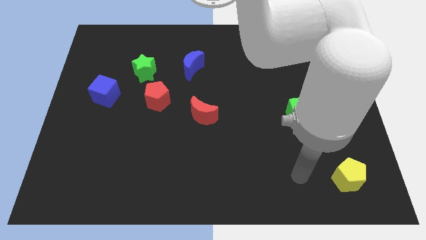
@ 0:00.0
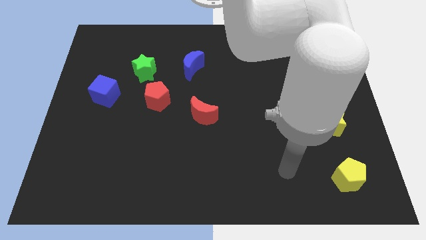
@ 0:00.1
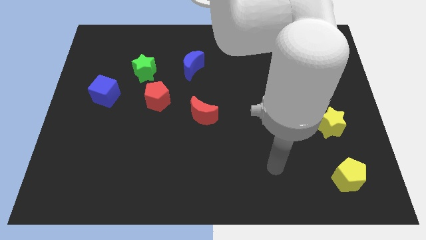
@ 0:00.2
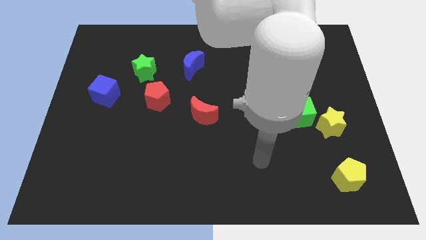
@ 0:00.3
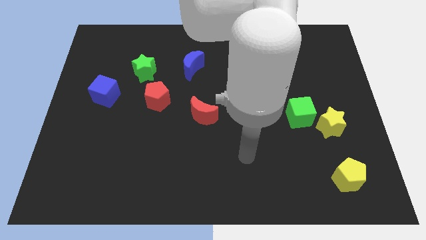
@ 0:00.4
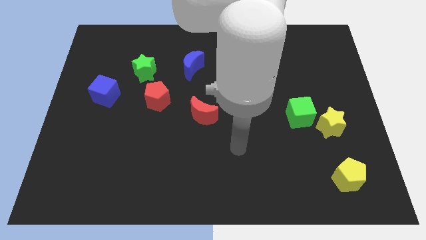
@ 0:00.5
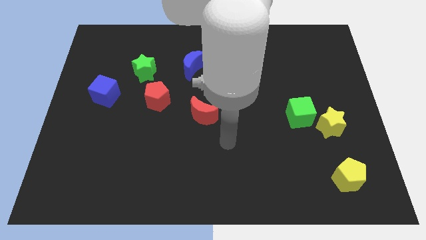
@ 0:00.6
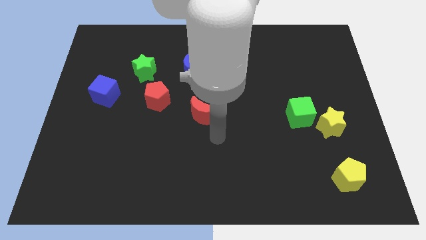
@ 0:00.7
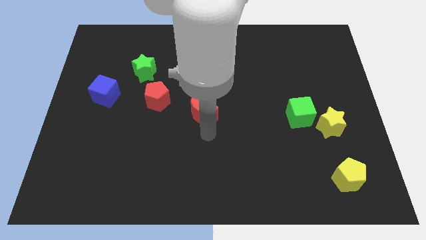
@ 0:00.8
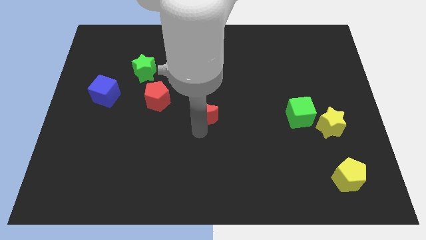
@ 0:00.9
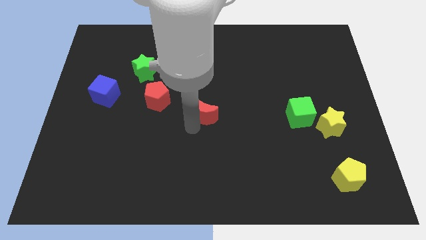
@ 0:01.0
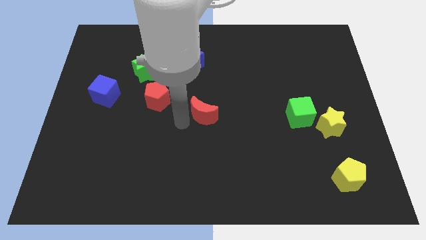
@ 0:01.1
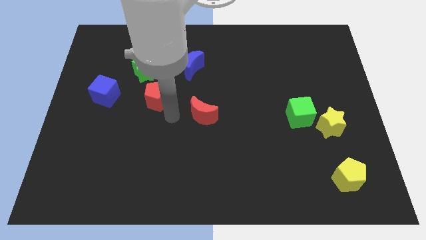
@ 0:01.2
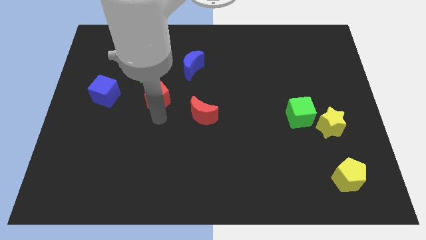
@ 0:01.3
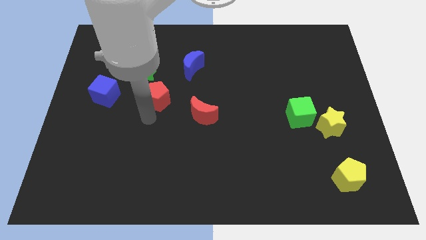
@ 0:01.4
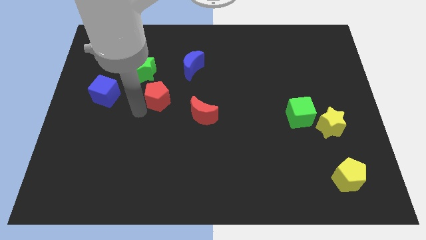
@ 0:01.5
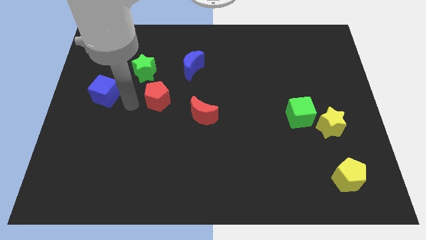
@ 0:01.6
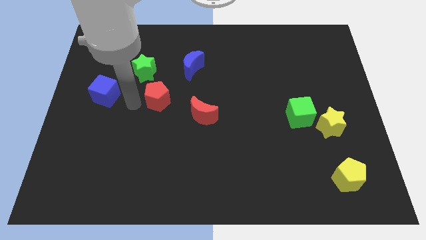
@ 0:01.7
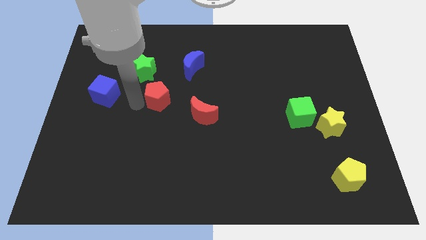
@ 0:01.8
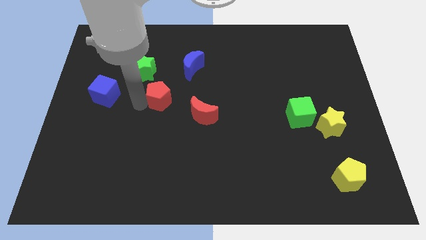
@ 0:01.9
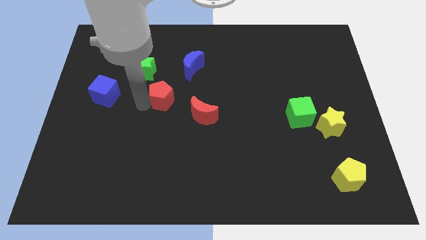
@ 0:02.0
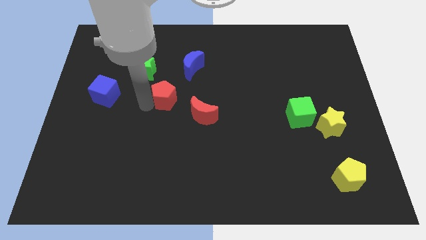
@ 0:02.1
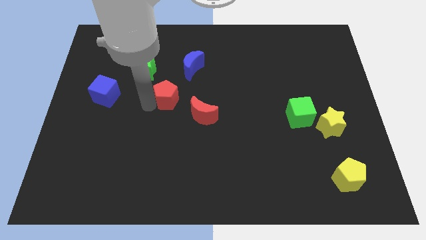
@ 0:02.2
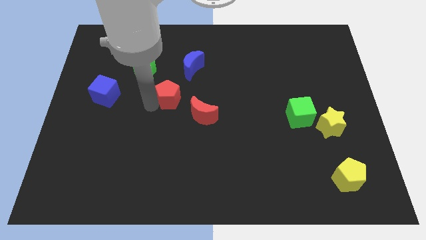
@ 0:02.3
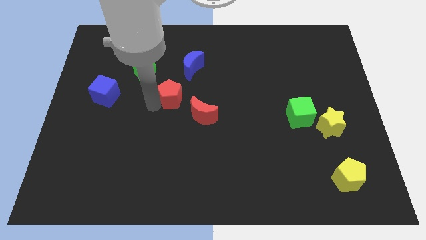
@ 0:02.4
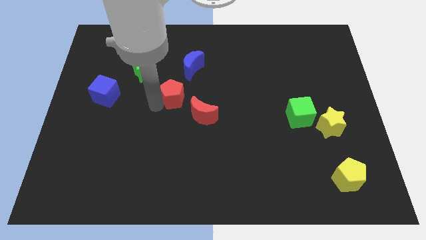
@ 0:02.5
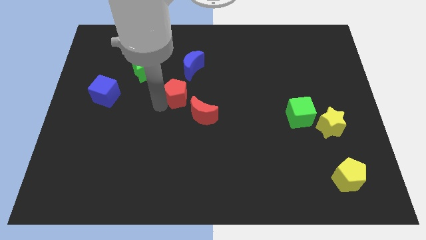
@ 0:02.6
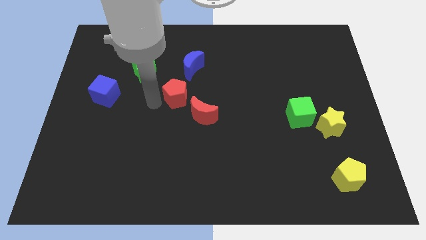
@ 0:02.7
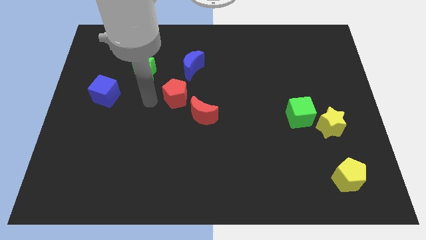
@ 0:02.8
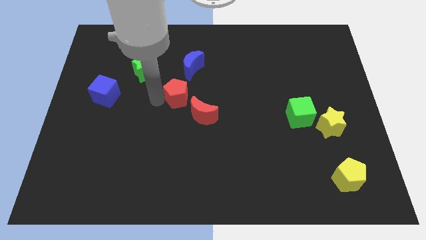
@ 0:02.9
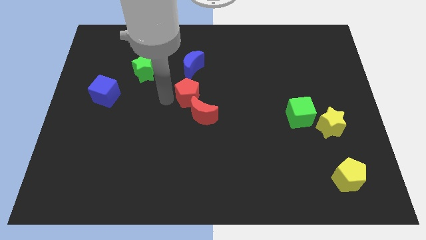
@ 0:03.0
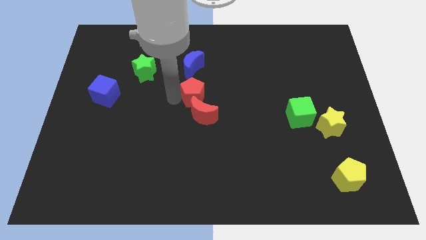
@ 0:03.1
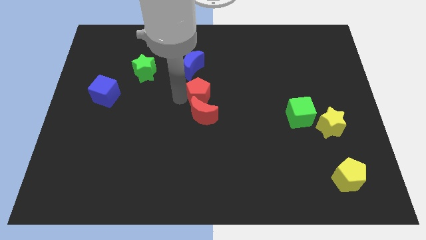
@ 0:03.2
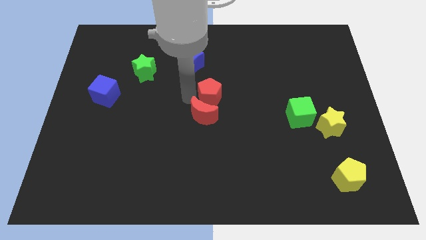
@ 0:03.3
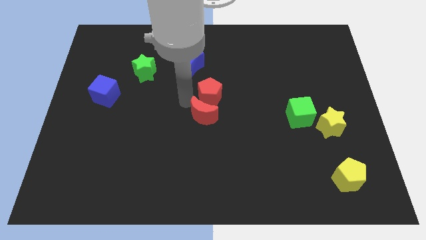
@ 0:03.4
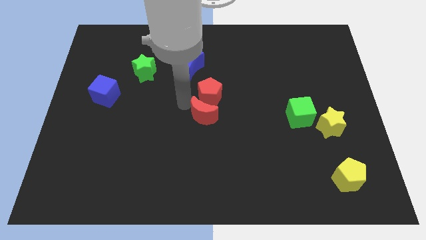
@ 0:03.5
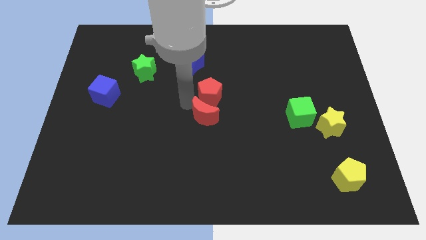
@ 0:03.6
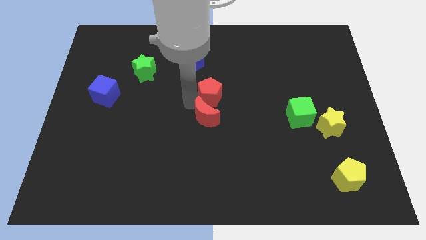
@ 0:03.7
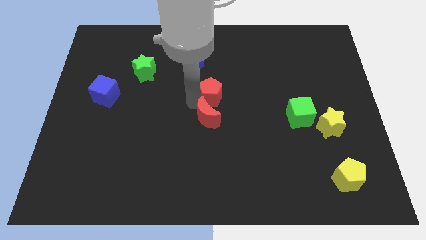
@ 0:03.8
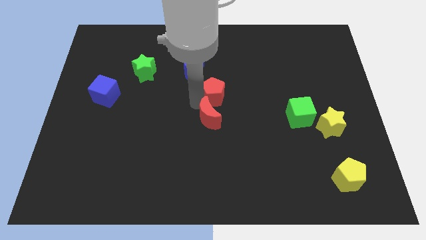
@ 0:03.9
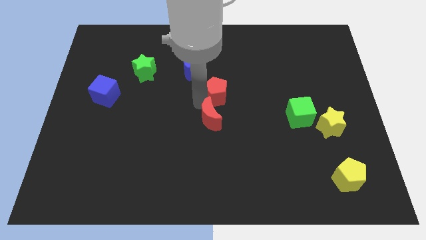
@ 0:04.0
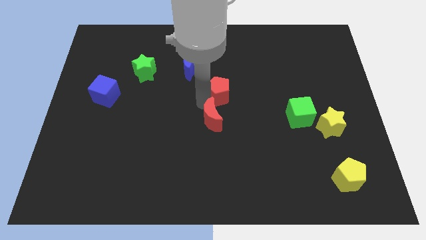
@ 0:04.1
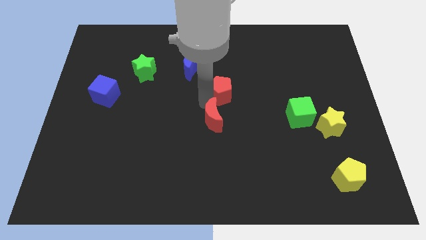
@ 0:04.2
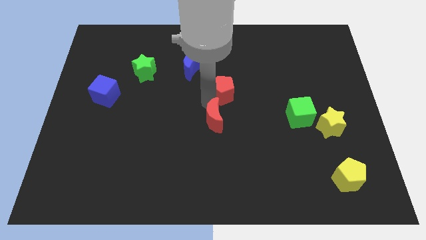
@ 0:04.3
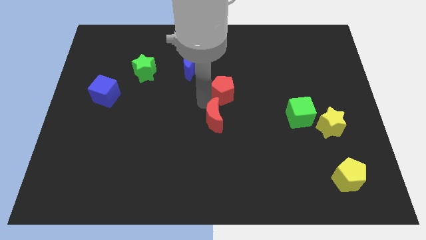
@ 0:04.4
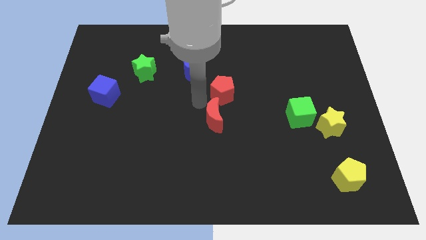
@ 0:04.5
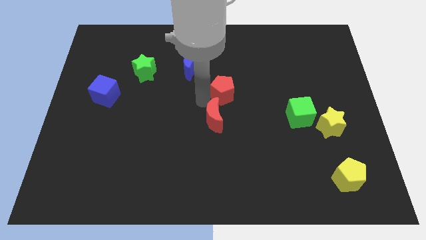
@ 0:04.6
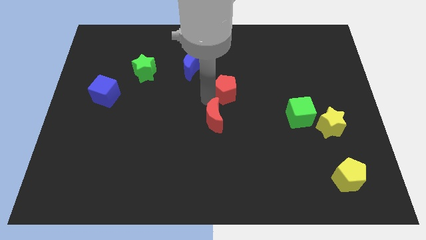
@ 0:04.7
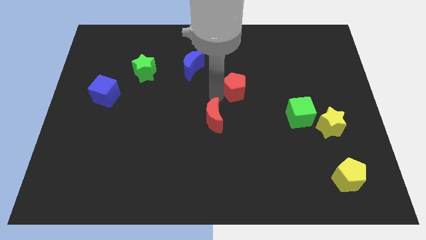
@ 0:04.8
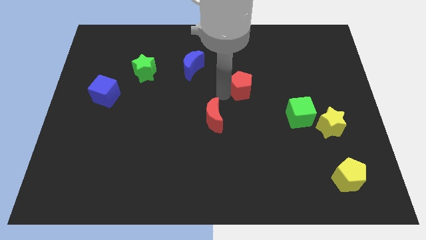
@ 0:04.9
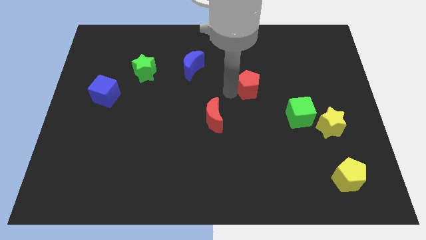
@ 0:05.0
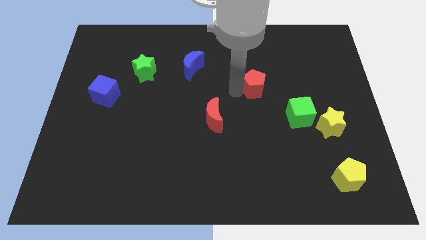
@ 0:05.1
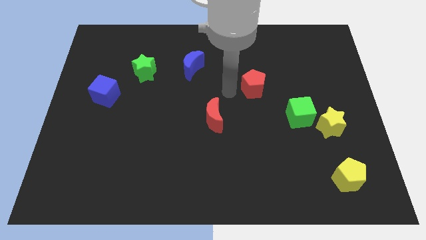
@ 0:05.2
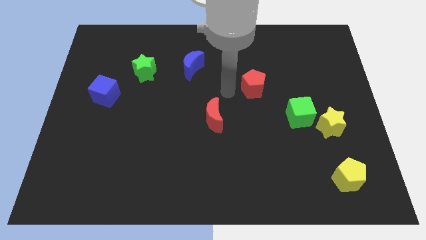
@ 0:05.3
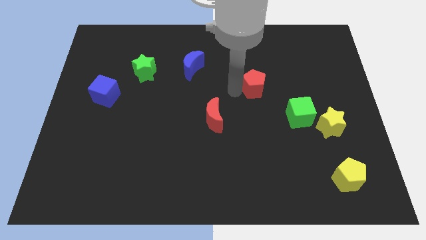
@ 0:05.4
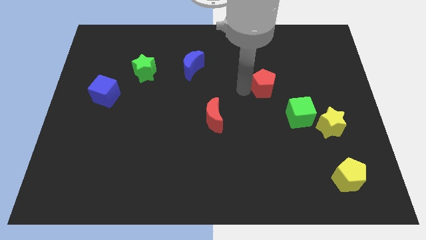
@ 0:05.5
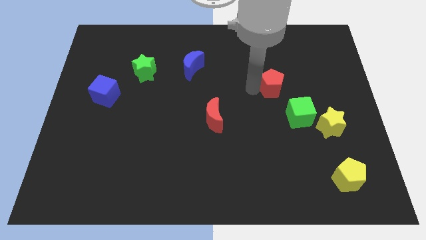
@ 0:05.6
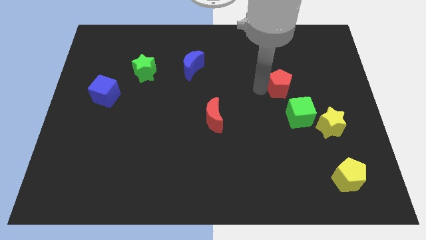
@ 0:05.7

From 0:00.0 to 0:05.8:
push the red pentagon above the green cube

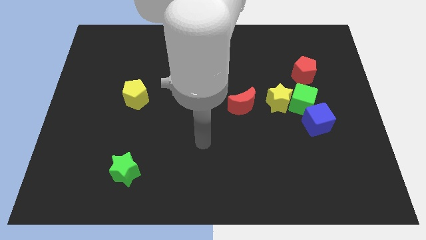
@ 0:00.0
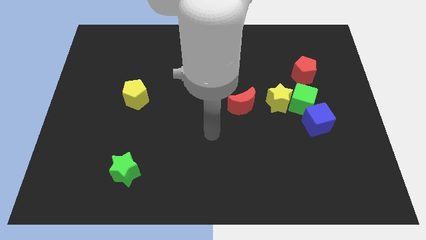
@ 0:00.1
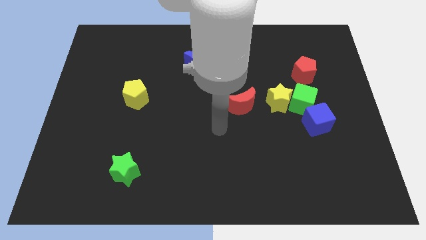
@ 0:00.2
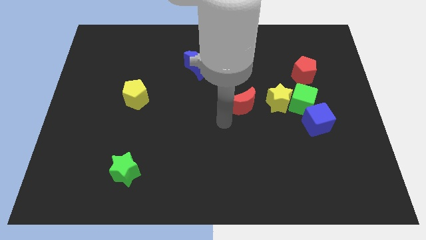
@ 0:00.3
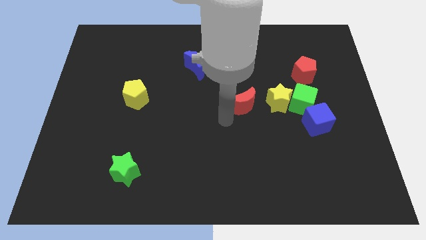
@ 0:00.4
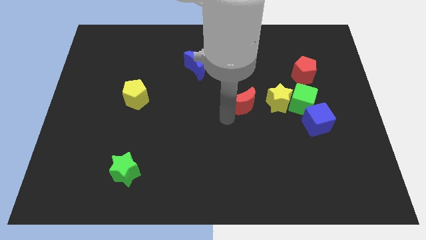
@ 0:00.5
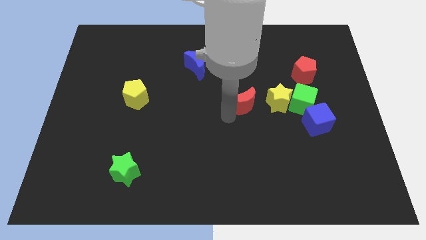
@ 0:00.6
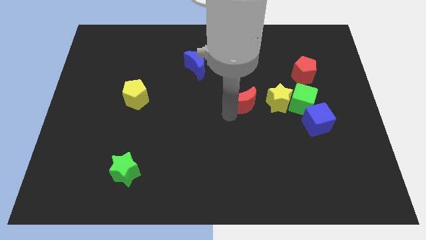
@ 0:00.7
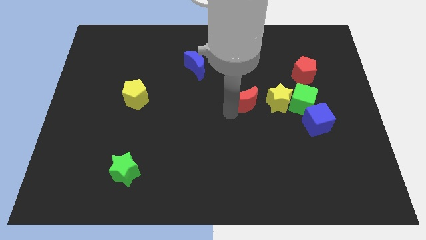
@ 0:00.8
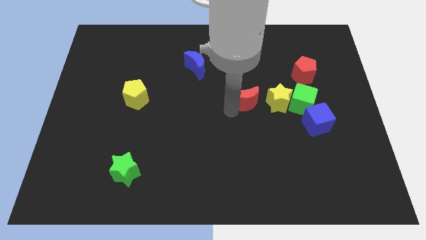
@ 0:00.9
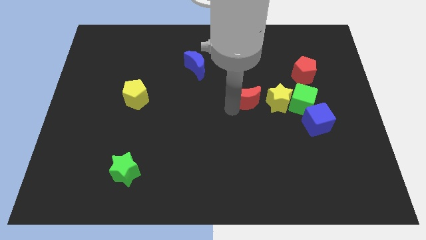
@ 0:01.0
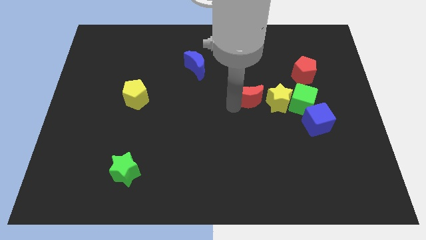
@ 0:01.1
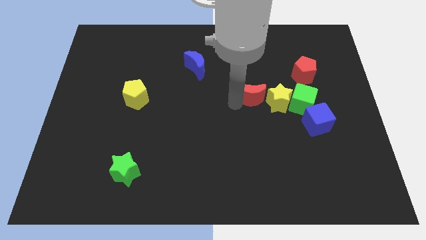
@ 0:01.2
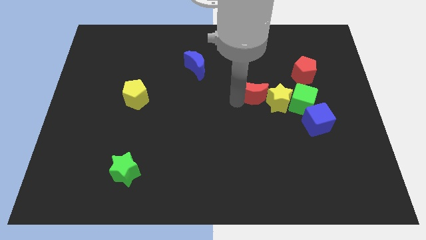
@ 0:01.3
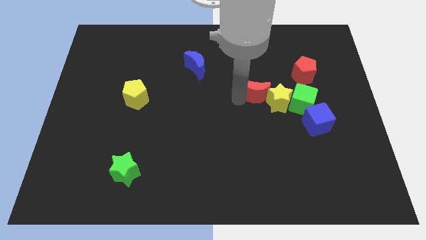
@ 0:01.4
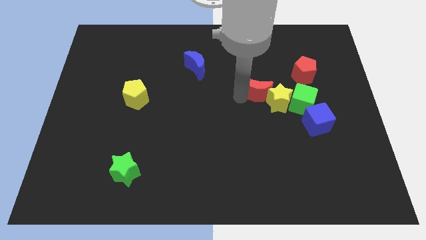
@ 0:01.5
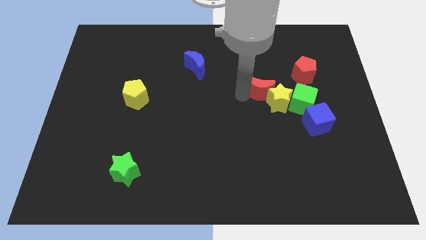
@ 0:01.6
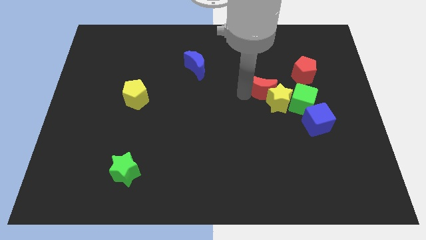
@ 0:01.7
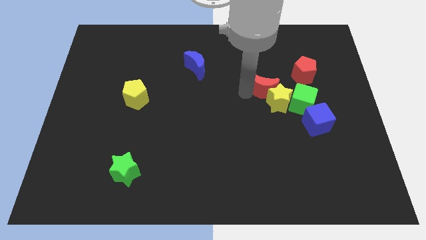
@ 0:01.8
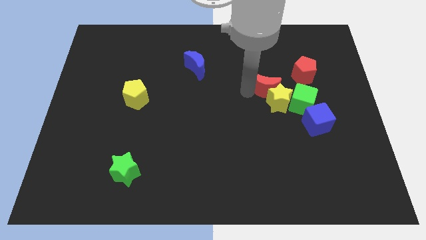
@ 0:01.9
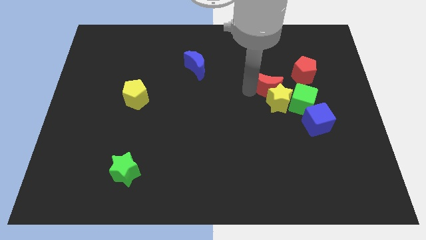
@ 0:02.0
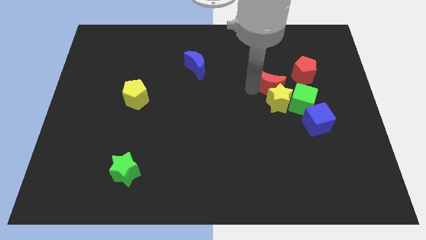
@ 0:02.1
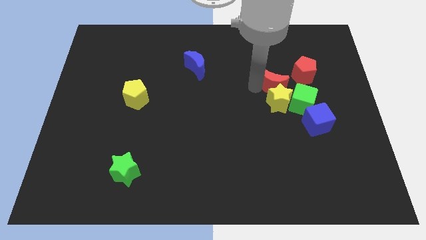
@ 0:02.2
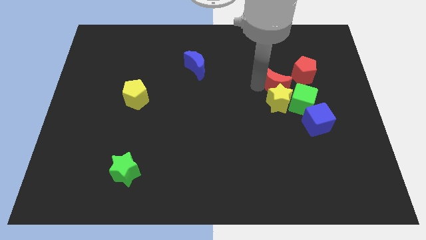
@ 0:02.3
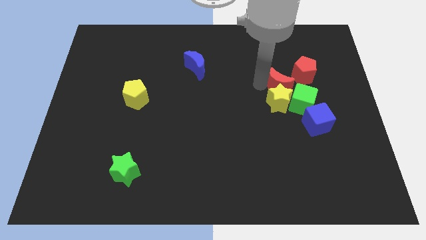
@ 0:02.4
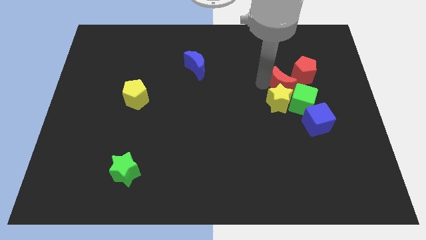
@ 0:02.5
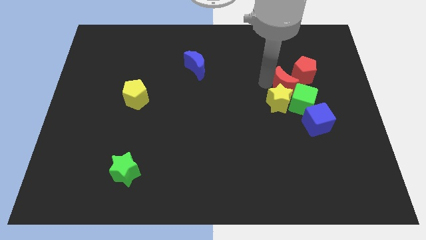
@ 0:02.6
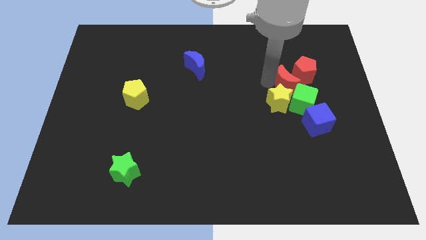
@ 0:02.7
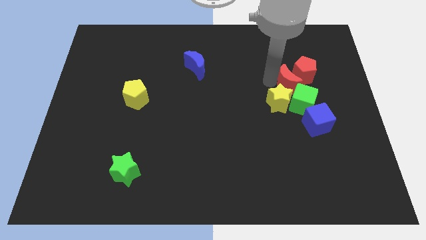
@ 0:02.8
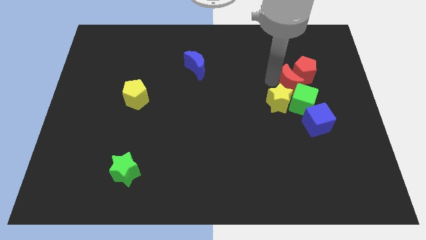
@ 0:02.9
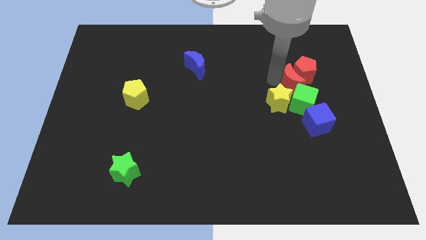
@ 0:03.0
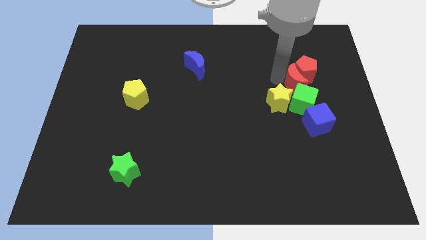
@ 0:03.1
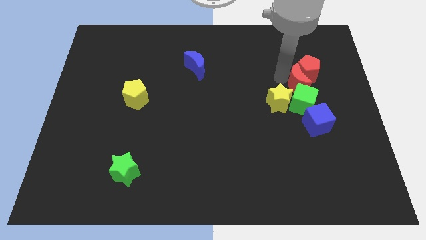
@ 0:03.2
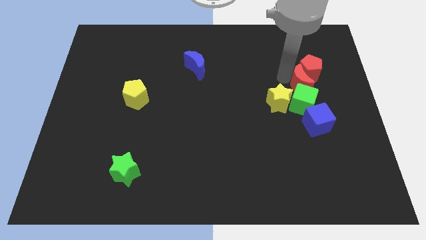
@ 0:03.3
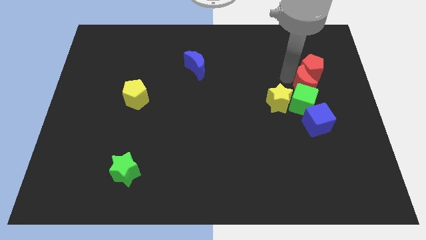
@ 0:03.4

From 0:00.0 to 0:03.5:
move the red moon right of the yellow star
